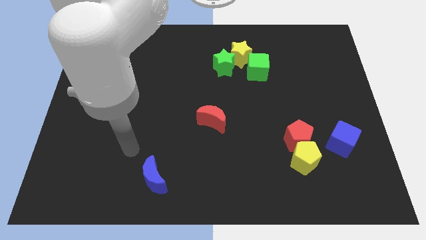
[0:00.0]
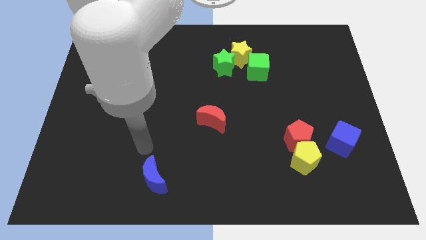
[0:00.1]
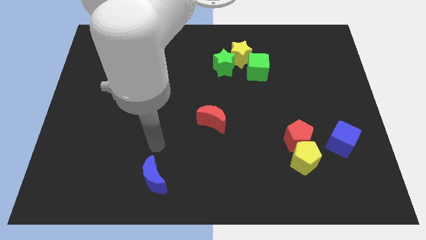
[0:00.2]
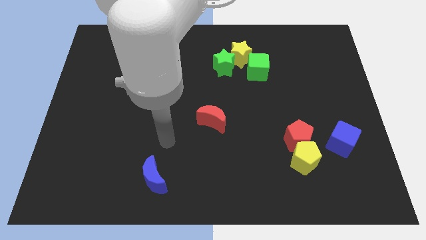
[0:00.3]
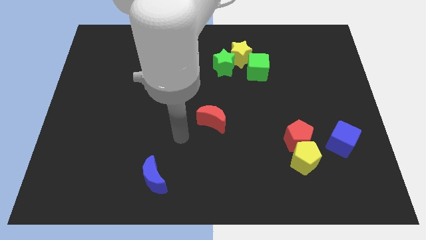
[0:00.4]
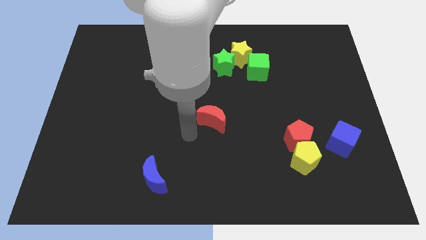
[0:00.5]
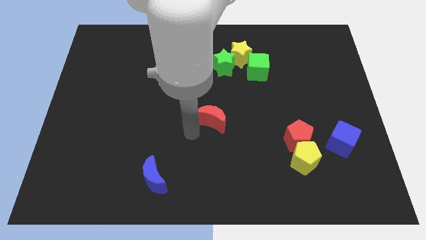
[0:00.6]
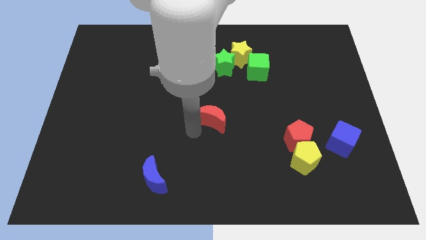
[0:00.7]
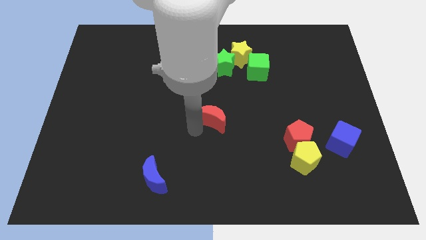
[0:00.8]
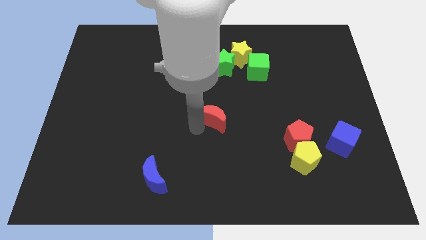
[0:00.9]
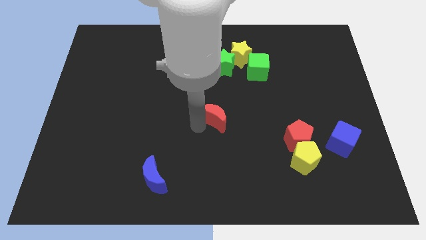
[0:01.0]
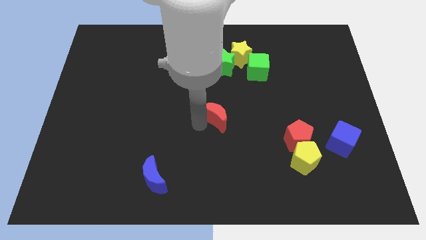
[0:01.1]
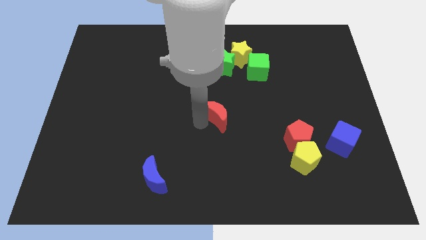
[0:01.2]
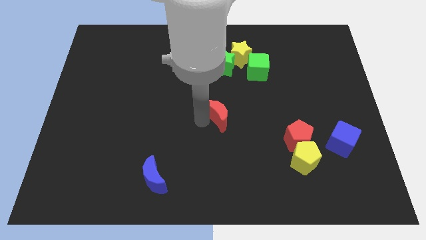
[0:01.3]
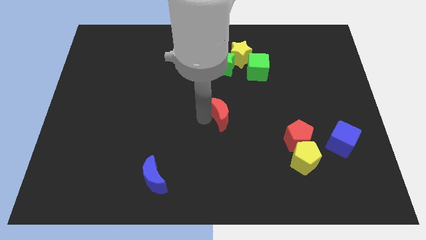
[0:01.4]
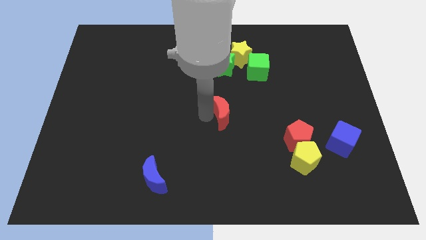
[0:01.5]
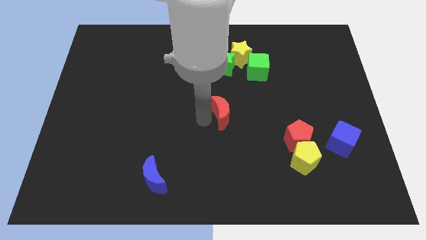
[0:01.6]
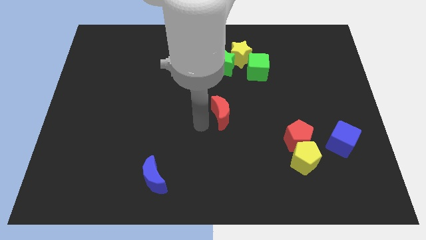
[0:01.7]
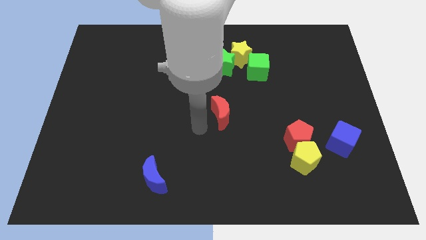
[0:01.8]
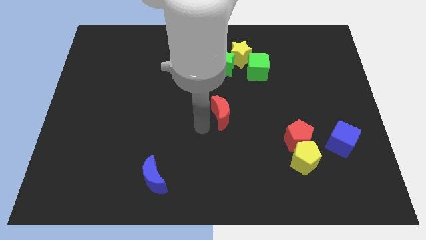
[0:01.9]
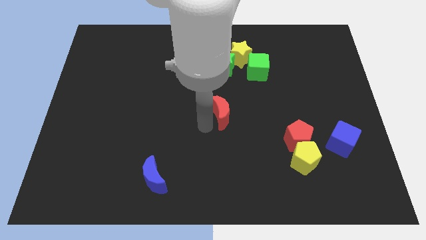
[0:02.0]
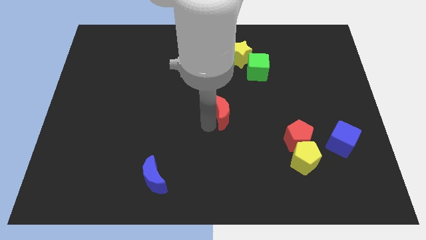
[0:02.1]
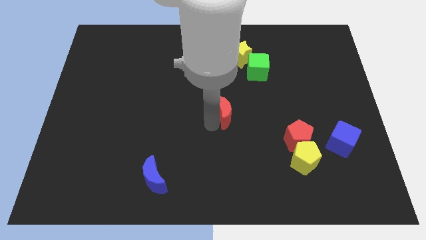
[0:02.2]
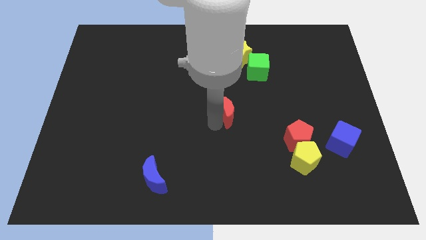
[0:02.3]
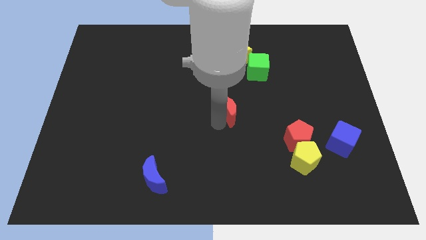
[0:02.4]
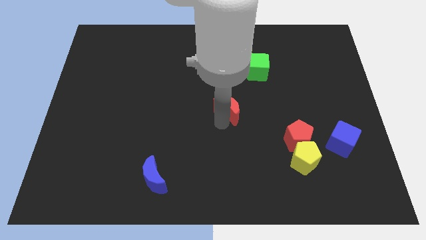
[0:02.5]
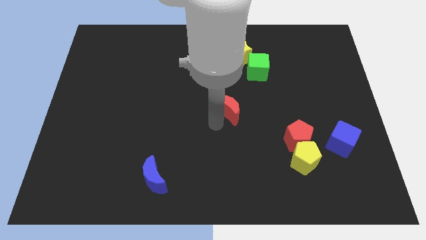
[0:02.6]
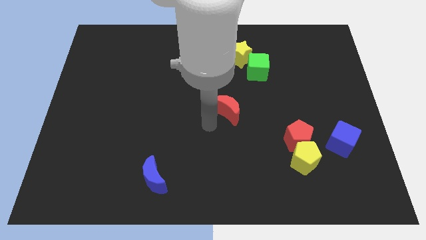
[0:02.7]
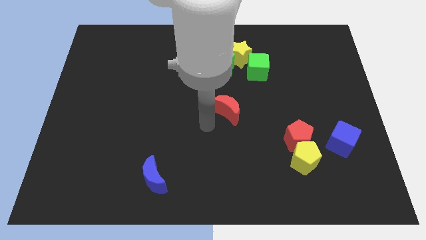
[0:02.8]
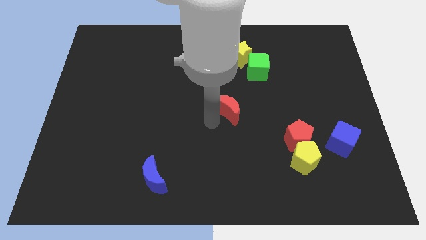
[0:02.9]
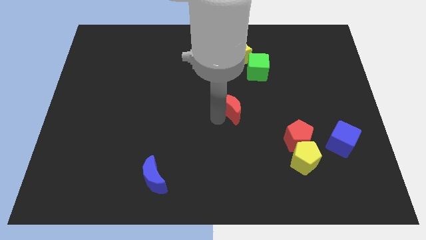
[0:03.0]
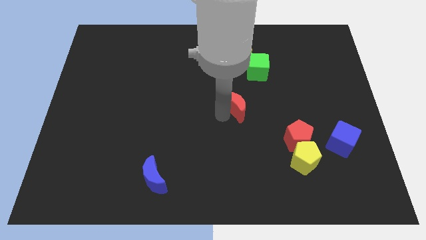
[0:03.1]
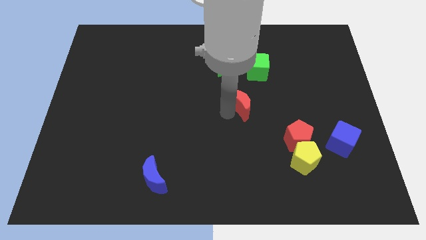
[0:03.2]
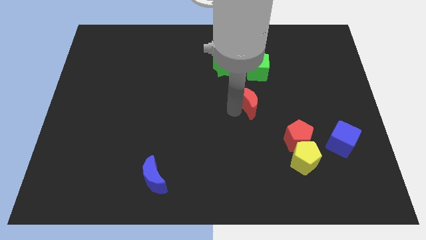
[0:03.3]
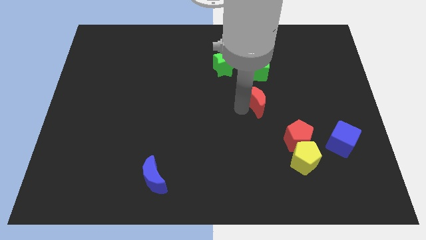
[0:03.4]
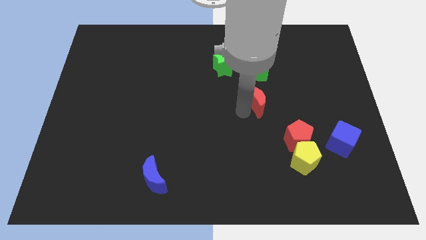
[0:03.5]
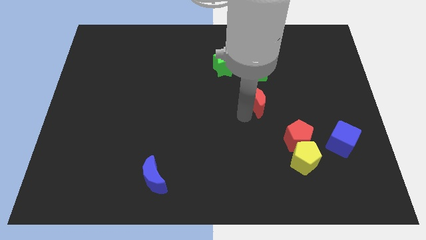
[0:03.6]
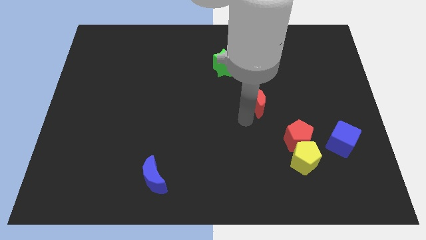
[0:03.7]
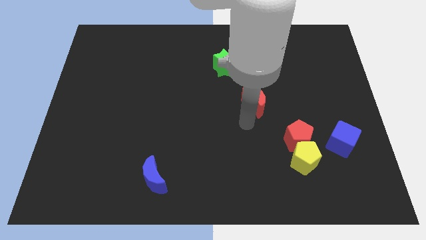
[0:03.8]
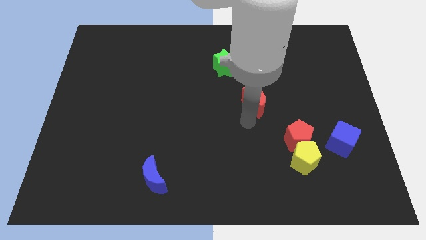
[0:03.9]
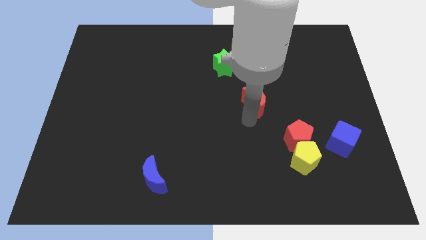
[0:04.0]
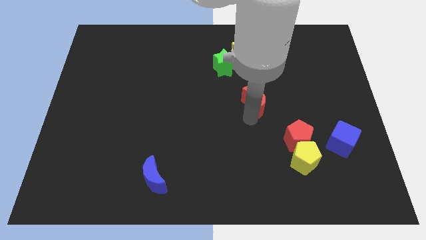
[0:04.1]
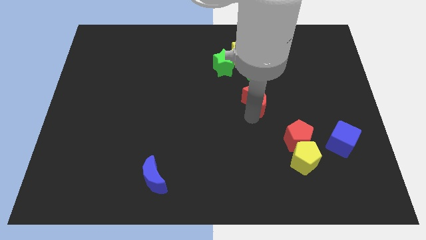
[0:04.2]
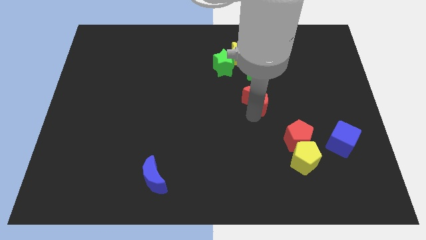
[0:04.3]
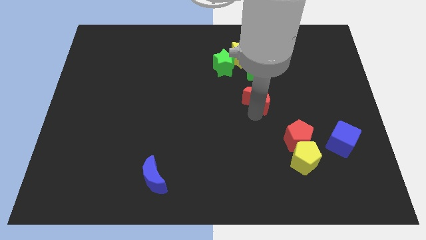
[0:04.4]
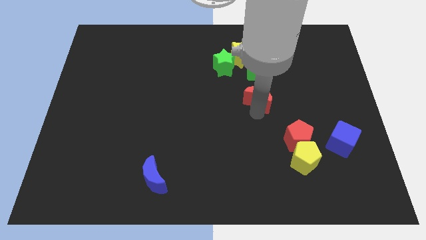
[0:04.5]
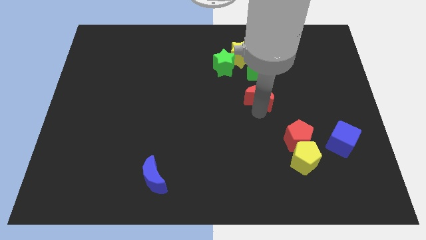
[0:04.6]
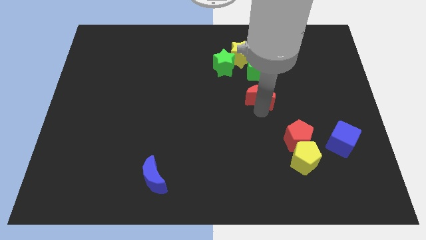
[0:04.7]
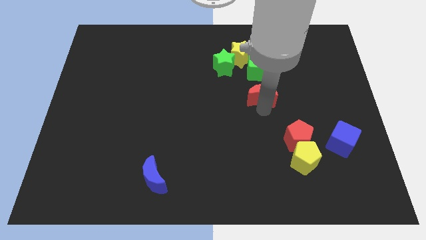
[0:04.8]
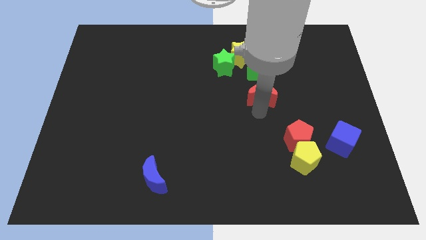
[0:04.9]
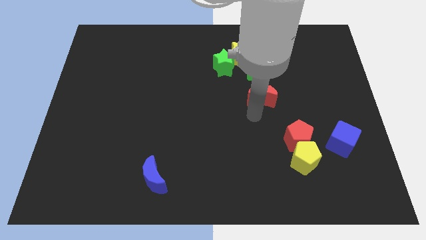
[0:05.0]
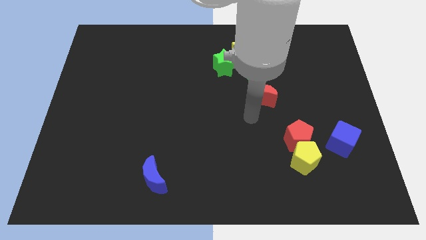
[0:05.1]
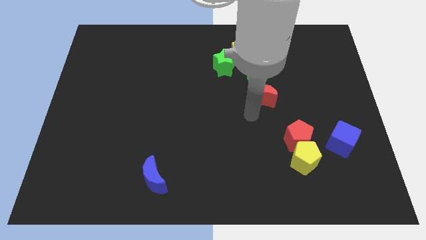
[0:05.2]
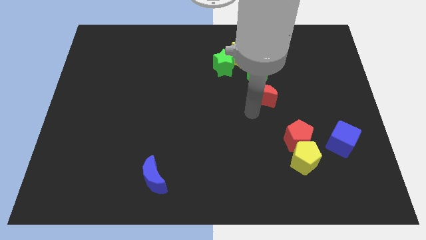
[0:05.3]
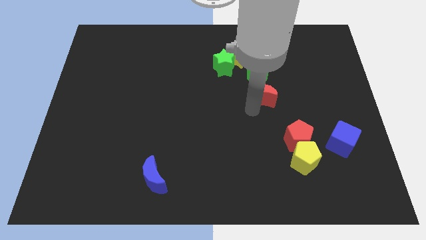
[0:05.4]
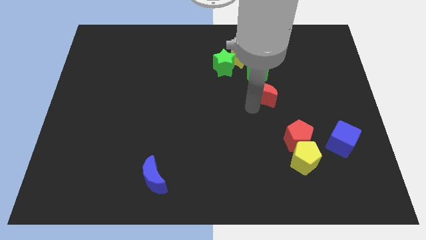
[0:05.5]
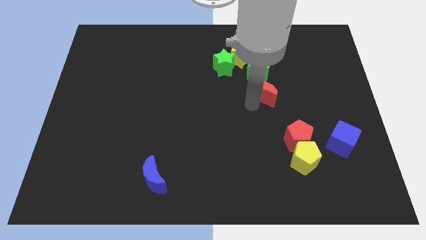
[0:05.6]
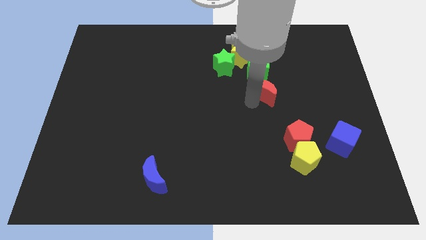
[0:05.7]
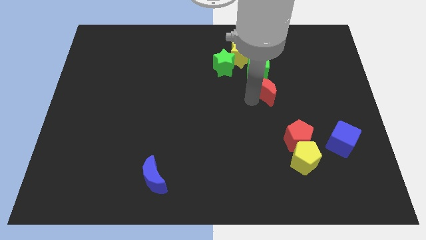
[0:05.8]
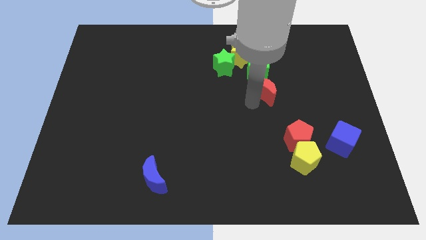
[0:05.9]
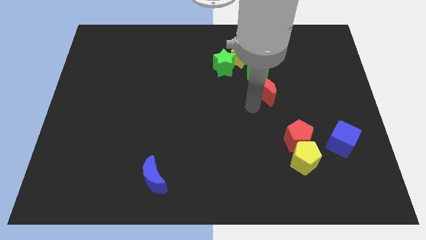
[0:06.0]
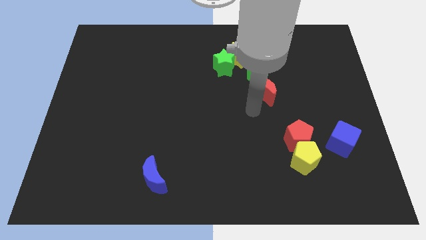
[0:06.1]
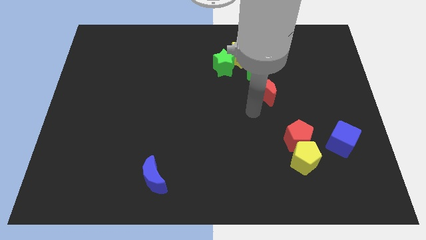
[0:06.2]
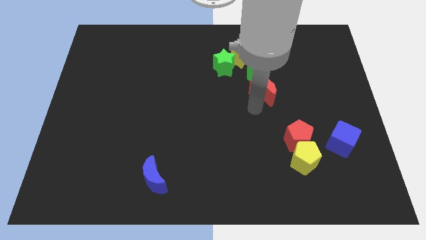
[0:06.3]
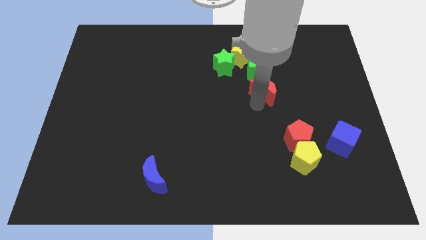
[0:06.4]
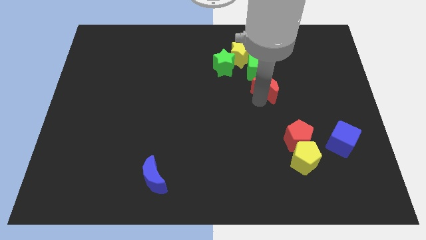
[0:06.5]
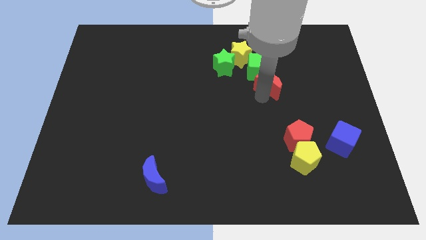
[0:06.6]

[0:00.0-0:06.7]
push the red moon diagonally down and to the right of the yellow star
